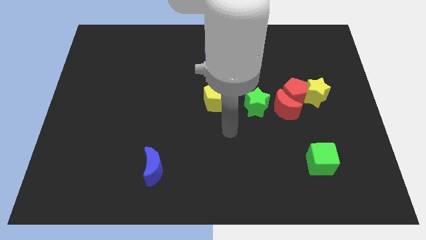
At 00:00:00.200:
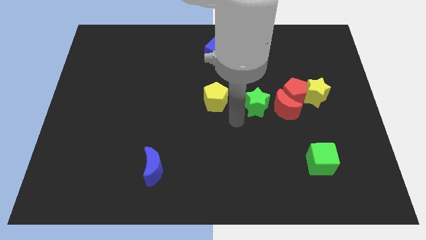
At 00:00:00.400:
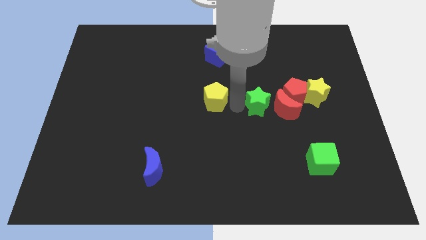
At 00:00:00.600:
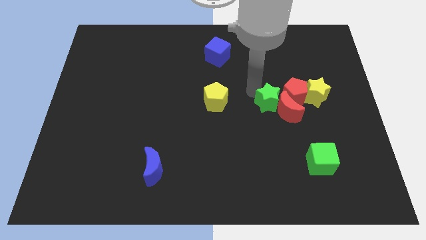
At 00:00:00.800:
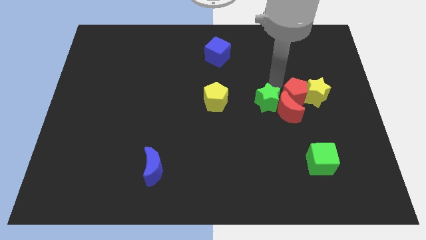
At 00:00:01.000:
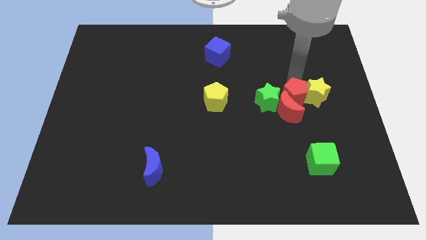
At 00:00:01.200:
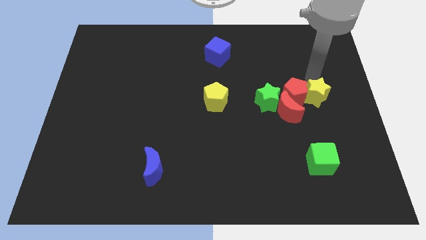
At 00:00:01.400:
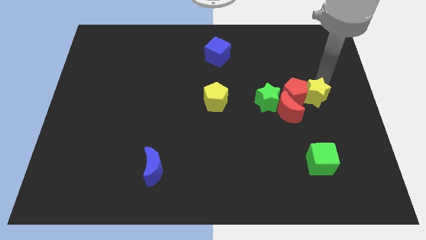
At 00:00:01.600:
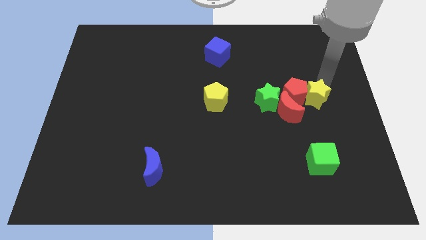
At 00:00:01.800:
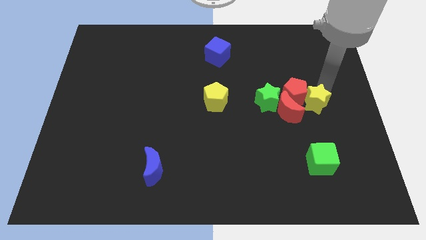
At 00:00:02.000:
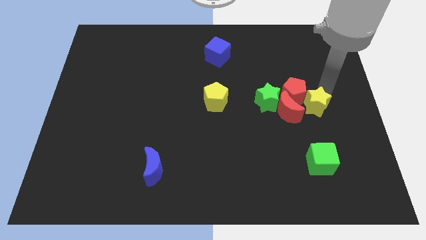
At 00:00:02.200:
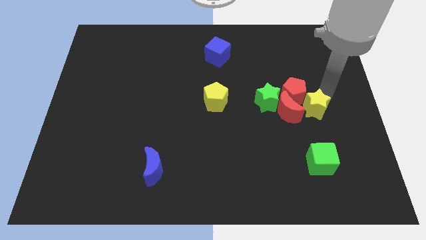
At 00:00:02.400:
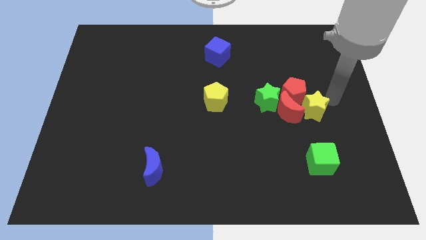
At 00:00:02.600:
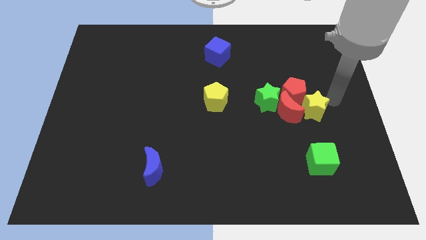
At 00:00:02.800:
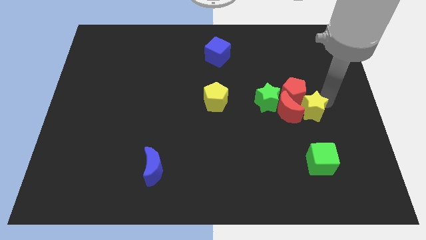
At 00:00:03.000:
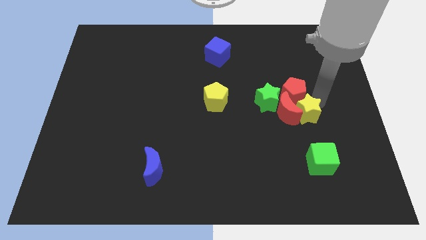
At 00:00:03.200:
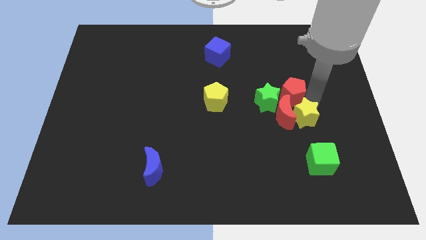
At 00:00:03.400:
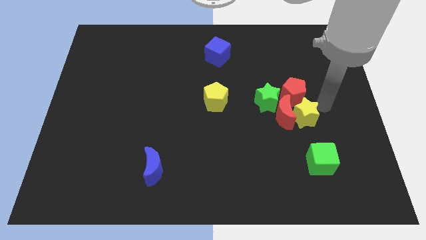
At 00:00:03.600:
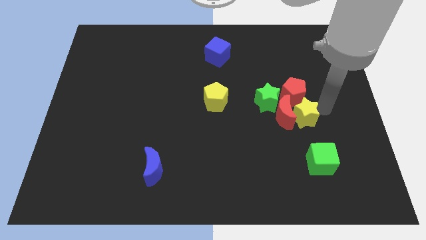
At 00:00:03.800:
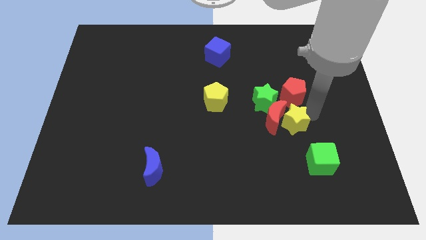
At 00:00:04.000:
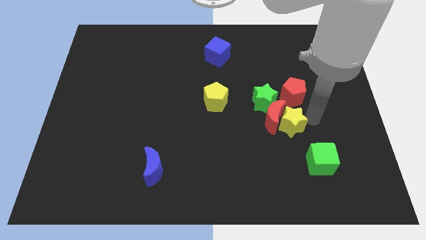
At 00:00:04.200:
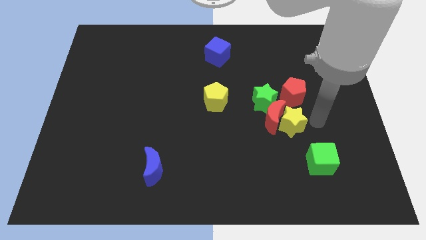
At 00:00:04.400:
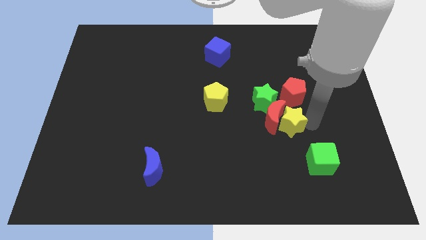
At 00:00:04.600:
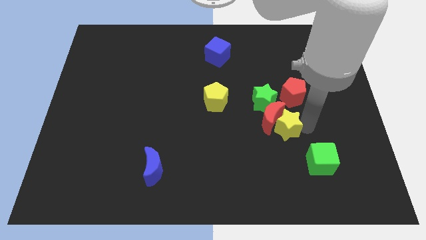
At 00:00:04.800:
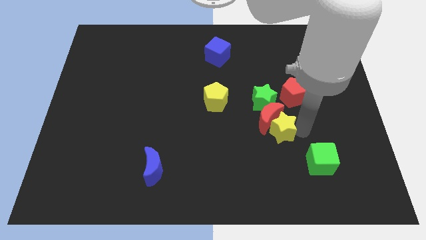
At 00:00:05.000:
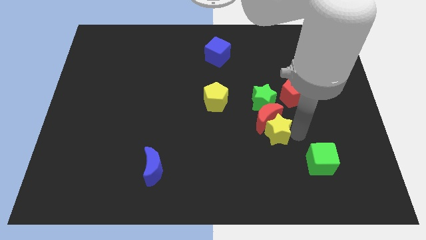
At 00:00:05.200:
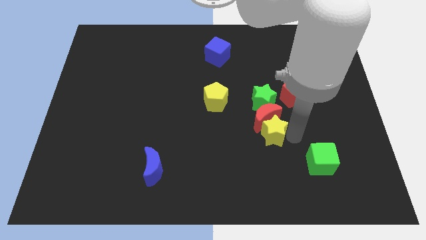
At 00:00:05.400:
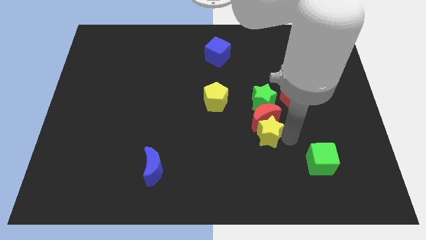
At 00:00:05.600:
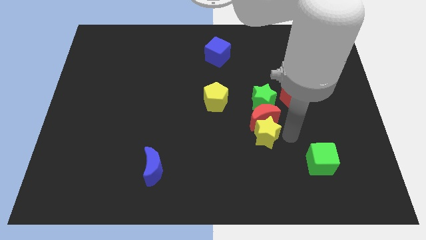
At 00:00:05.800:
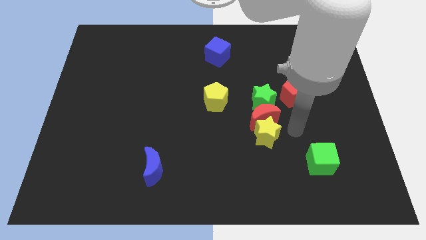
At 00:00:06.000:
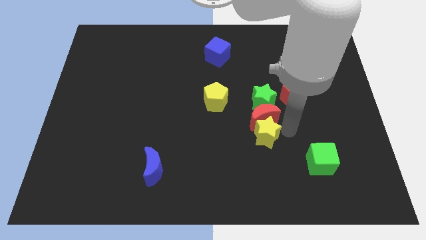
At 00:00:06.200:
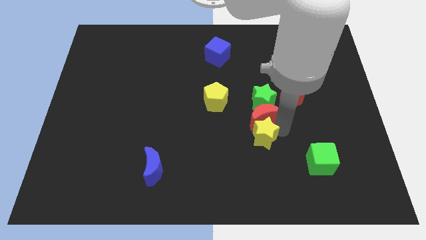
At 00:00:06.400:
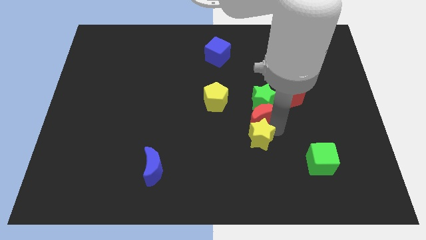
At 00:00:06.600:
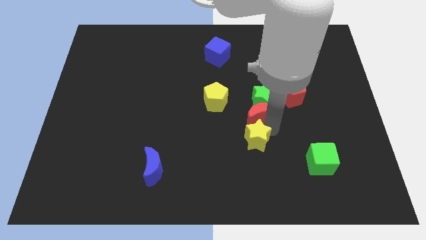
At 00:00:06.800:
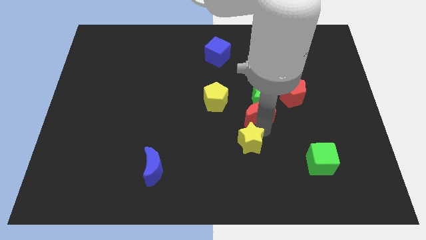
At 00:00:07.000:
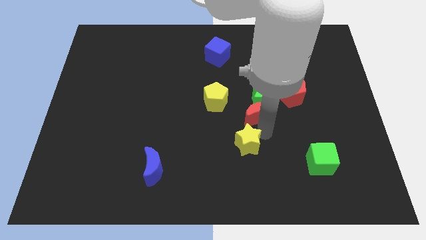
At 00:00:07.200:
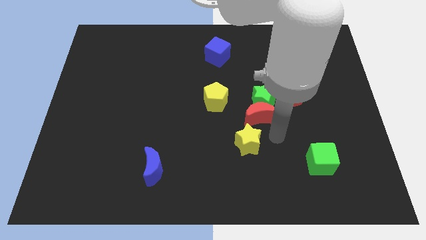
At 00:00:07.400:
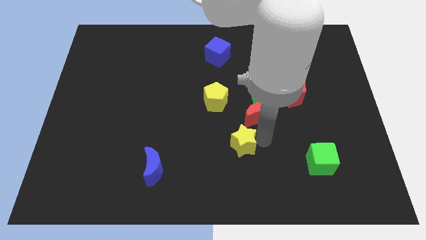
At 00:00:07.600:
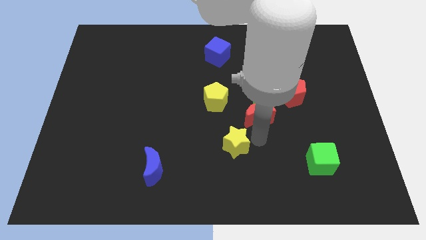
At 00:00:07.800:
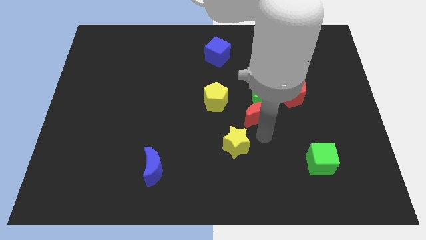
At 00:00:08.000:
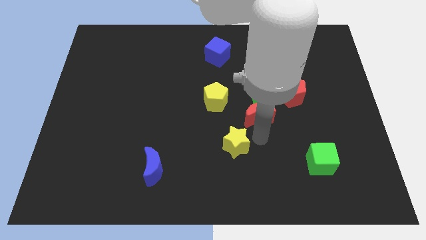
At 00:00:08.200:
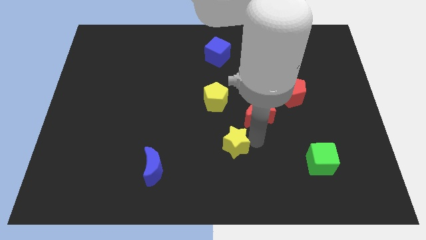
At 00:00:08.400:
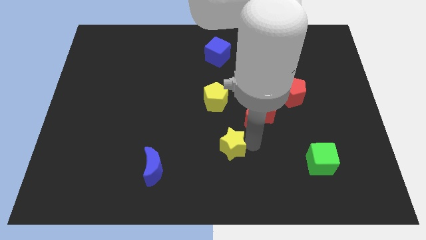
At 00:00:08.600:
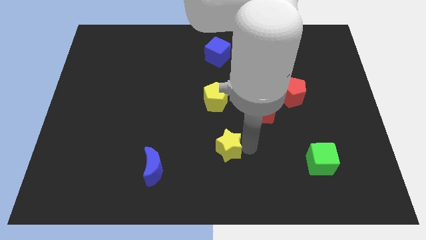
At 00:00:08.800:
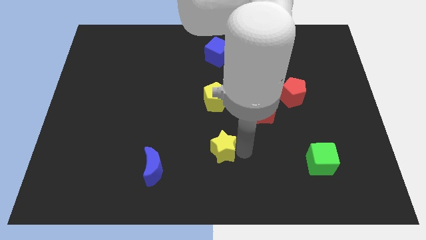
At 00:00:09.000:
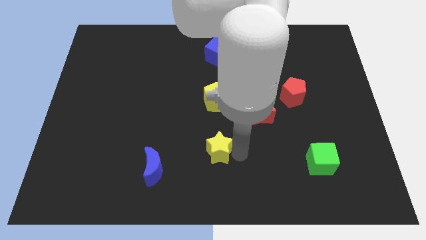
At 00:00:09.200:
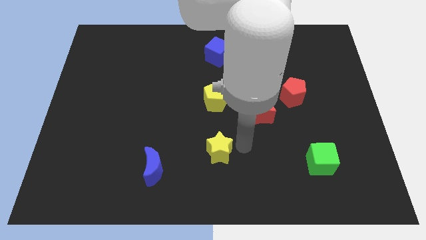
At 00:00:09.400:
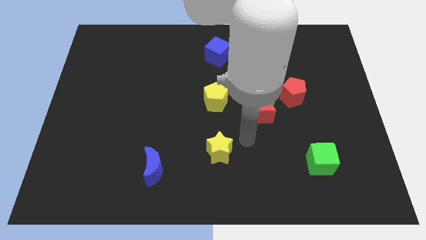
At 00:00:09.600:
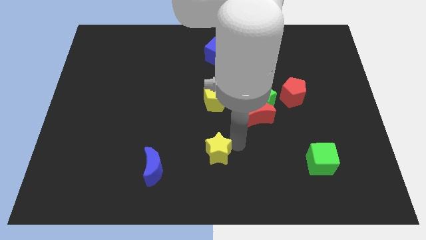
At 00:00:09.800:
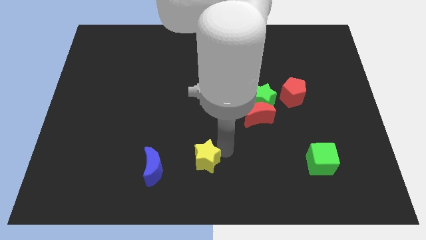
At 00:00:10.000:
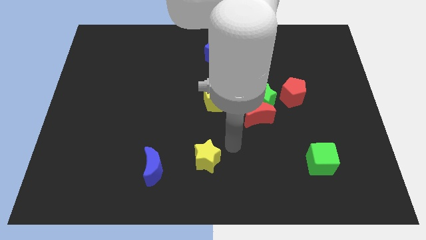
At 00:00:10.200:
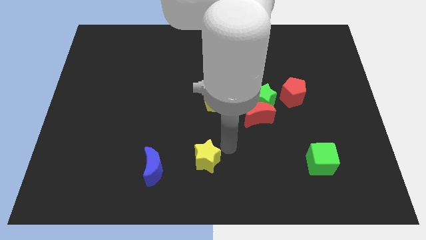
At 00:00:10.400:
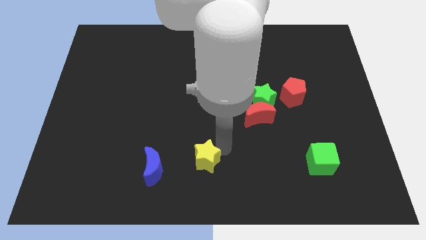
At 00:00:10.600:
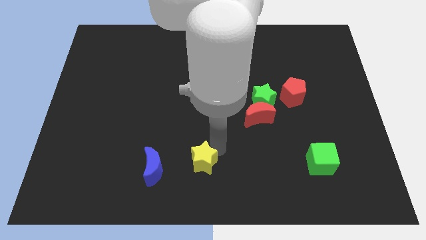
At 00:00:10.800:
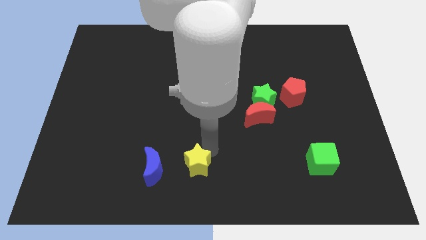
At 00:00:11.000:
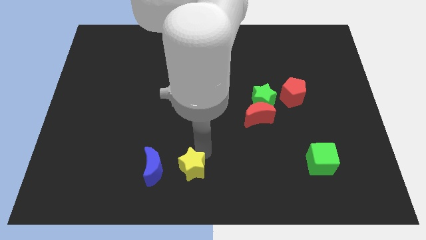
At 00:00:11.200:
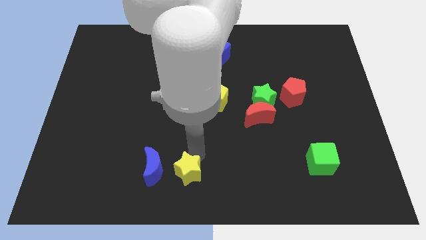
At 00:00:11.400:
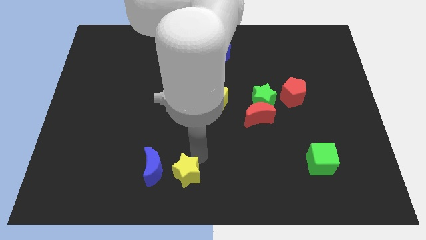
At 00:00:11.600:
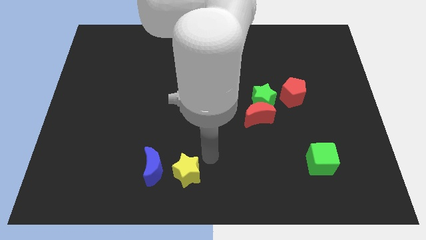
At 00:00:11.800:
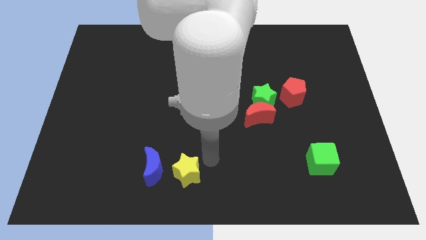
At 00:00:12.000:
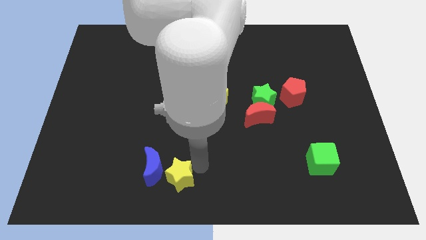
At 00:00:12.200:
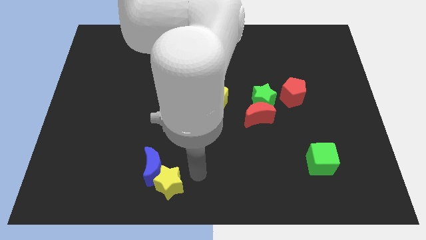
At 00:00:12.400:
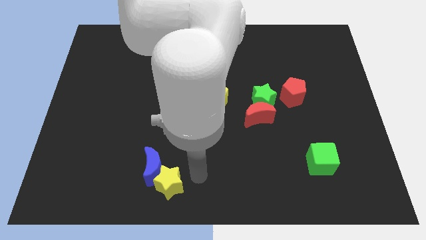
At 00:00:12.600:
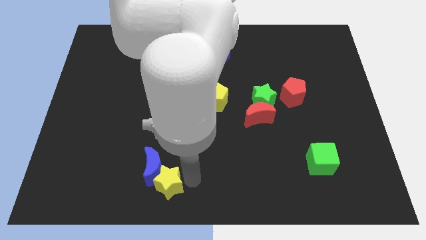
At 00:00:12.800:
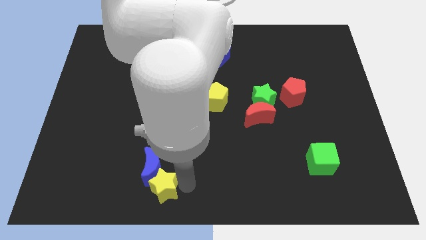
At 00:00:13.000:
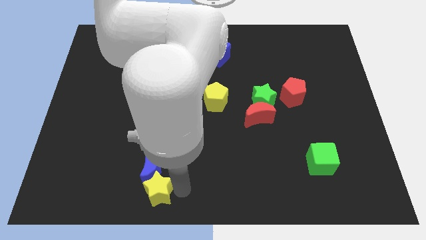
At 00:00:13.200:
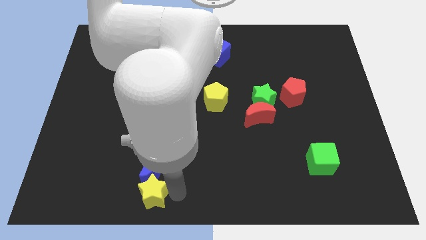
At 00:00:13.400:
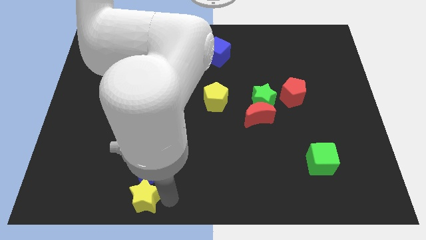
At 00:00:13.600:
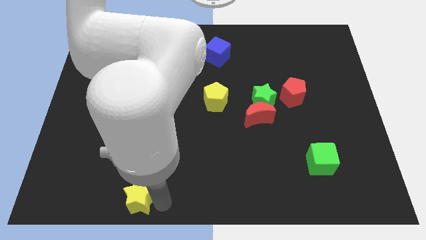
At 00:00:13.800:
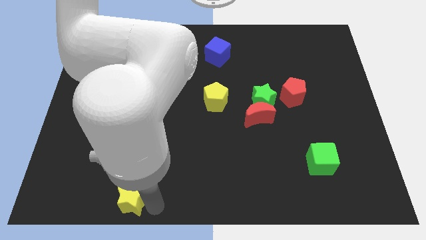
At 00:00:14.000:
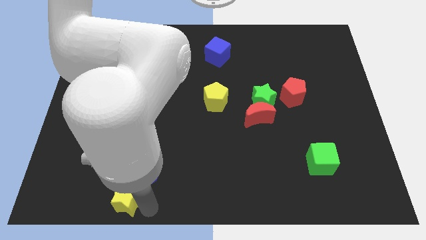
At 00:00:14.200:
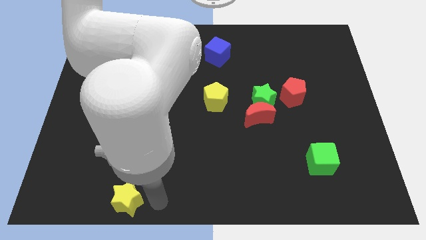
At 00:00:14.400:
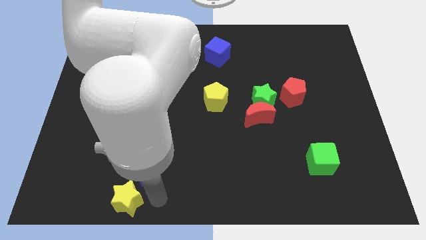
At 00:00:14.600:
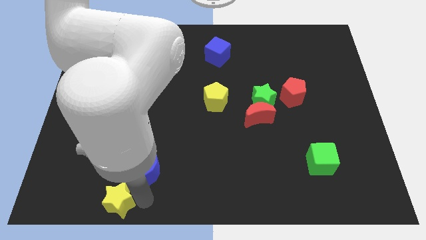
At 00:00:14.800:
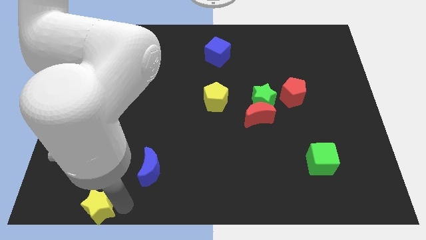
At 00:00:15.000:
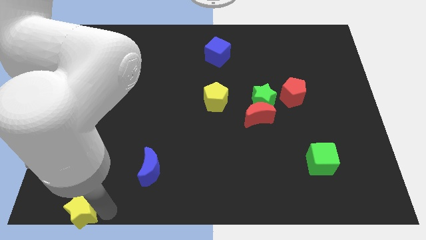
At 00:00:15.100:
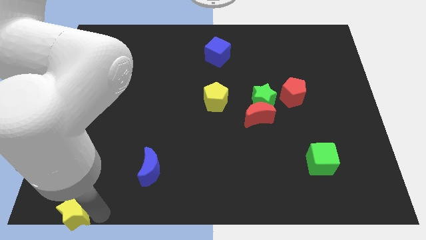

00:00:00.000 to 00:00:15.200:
move the yellow star to the bottom left of the board
